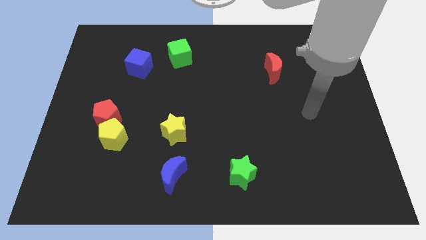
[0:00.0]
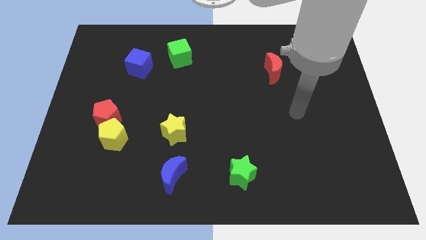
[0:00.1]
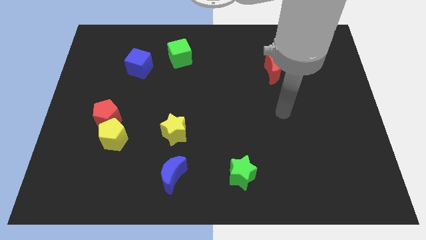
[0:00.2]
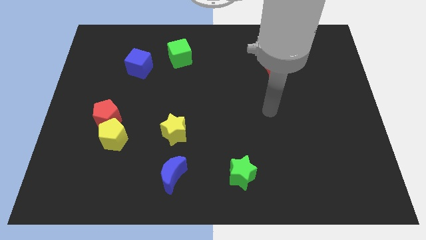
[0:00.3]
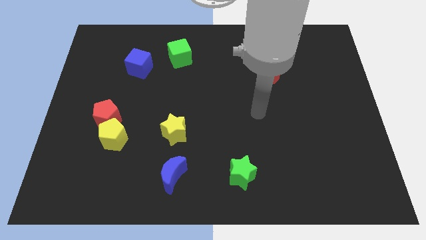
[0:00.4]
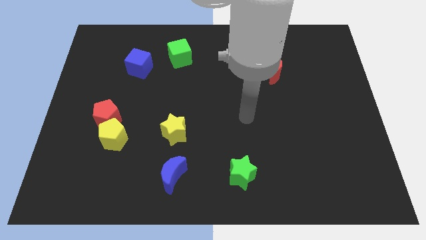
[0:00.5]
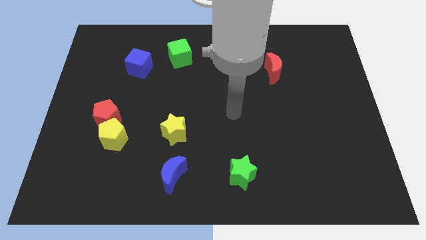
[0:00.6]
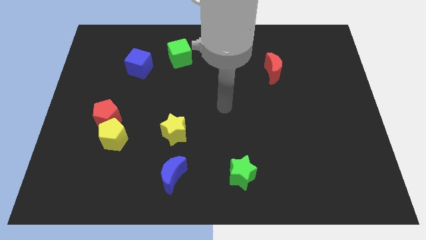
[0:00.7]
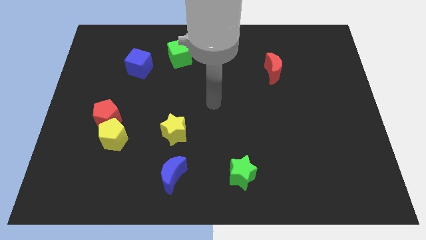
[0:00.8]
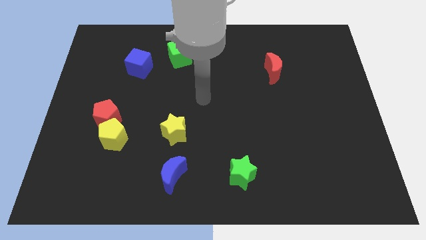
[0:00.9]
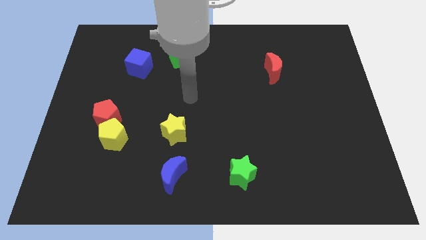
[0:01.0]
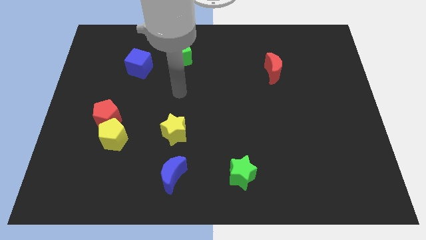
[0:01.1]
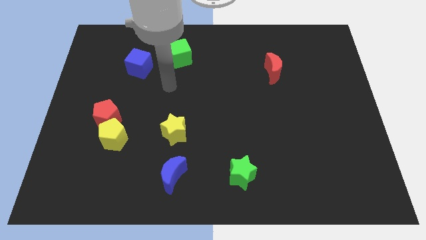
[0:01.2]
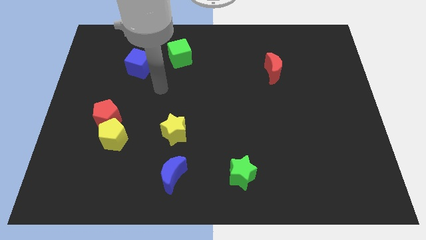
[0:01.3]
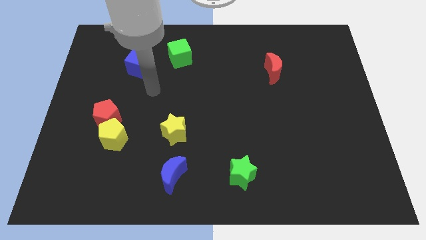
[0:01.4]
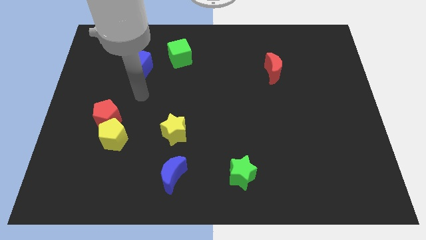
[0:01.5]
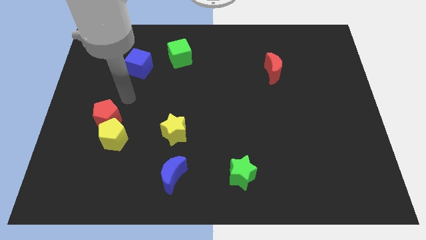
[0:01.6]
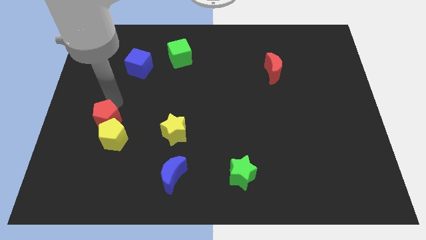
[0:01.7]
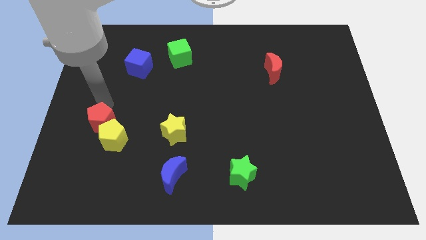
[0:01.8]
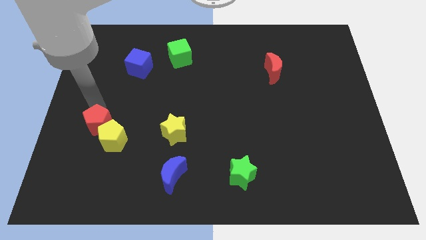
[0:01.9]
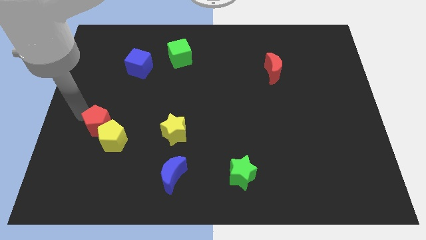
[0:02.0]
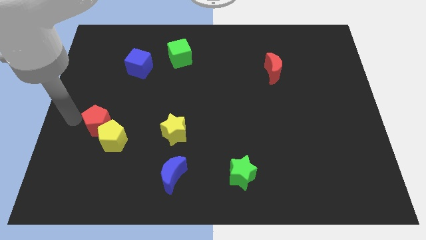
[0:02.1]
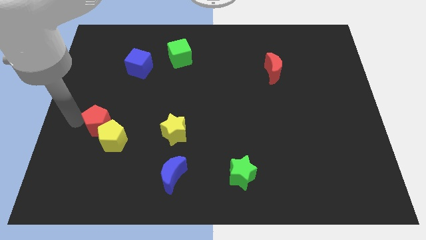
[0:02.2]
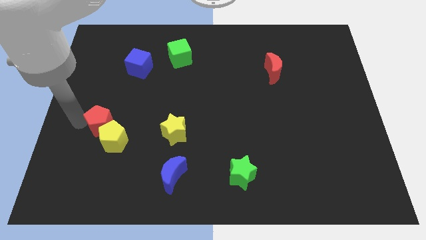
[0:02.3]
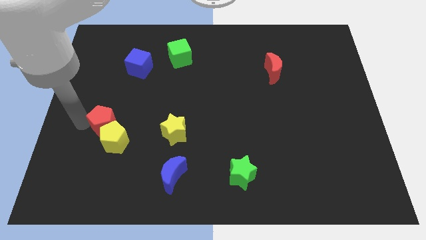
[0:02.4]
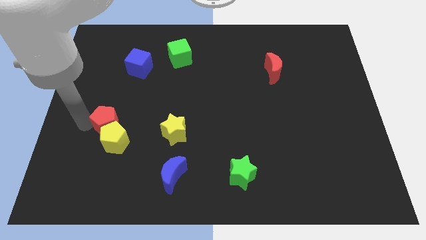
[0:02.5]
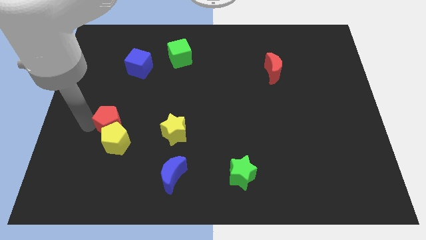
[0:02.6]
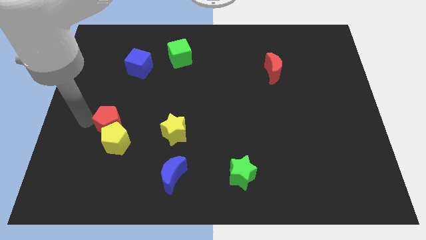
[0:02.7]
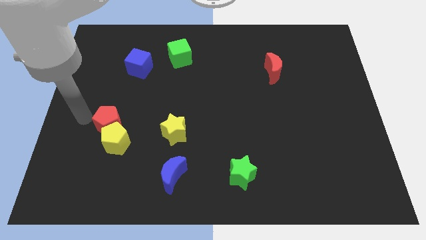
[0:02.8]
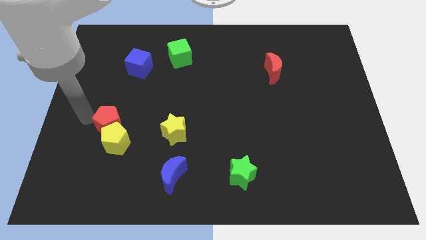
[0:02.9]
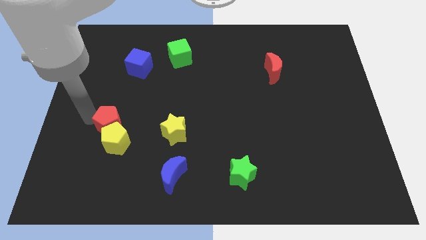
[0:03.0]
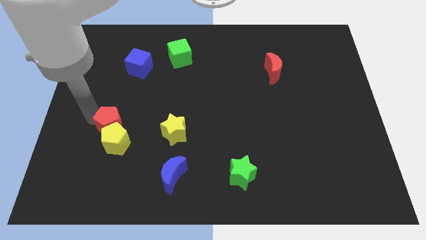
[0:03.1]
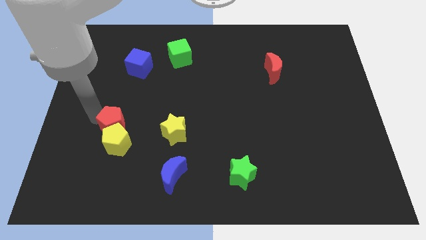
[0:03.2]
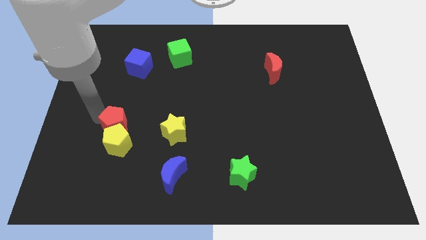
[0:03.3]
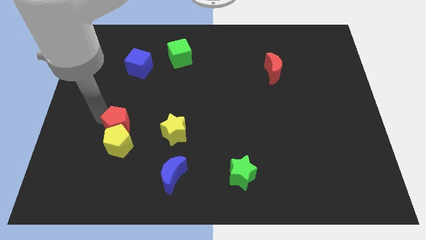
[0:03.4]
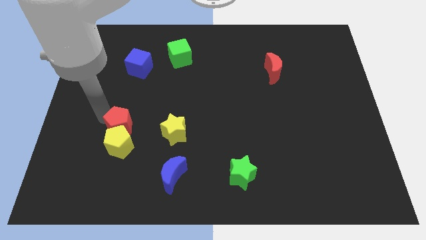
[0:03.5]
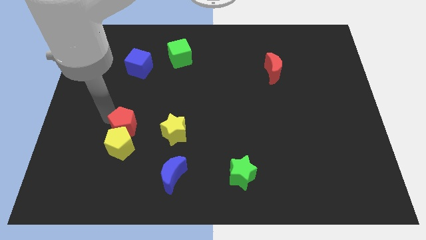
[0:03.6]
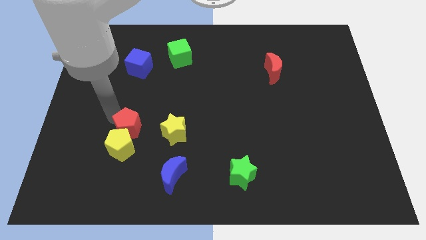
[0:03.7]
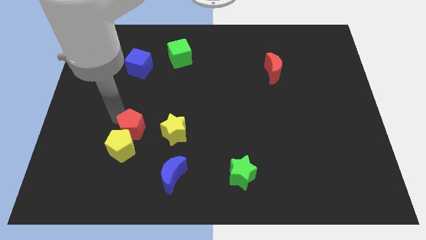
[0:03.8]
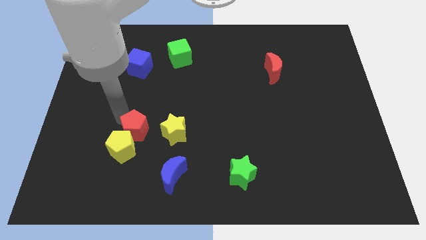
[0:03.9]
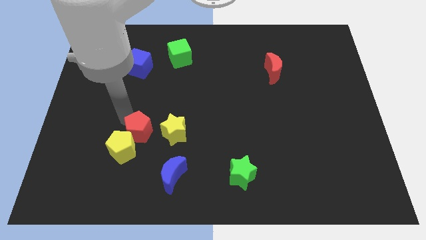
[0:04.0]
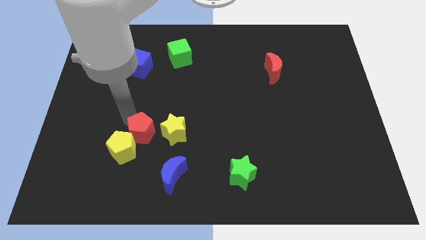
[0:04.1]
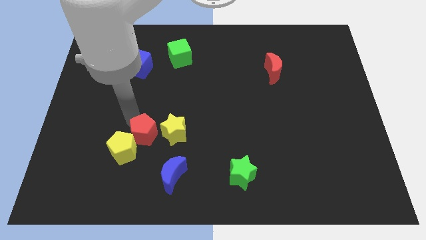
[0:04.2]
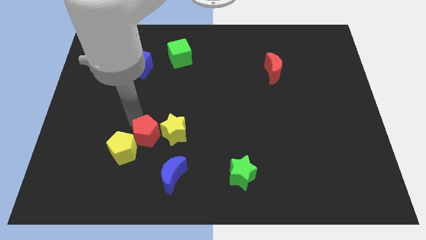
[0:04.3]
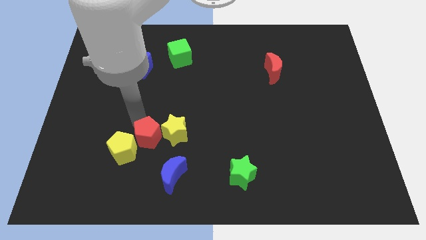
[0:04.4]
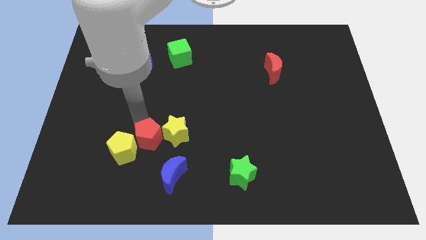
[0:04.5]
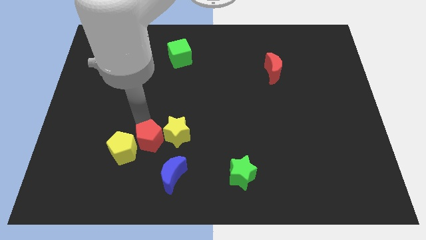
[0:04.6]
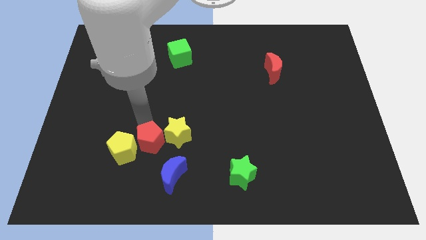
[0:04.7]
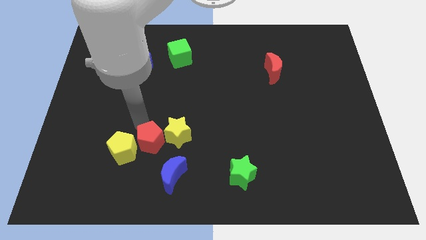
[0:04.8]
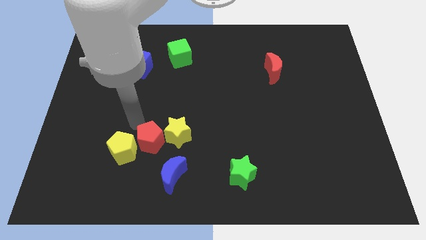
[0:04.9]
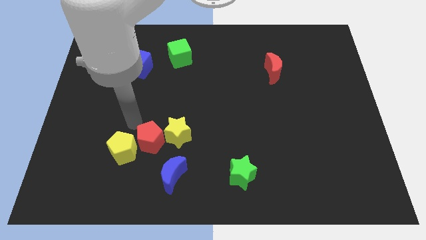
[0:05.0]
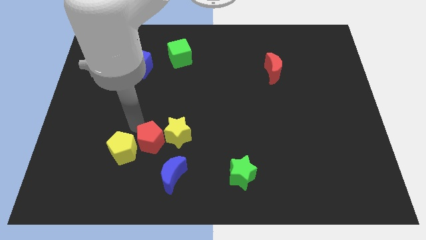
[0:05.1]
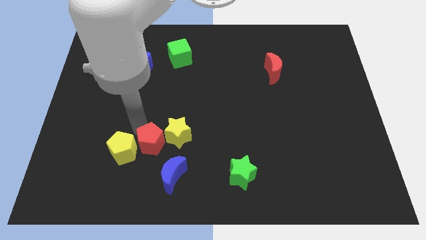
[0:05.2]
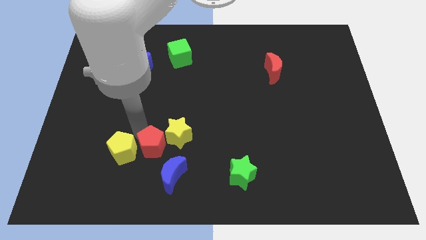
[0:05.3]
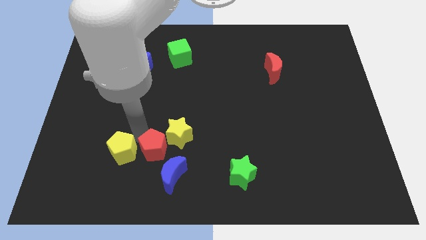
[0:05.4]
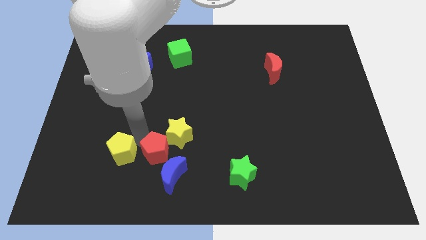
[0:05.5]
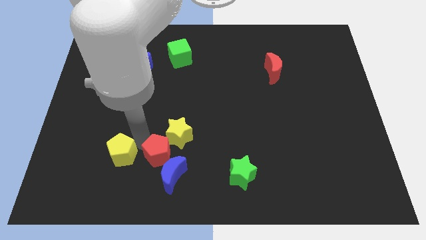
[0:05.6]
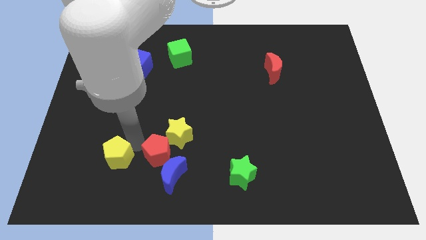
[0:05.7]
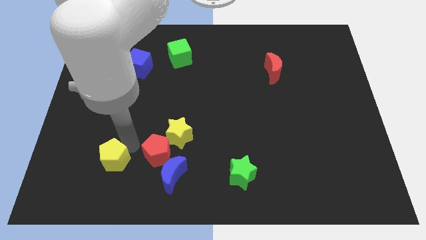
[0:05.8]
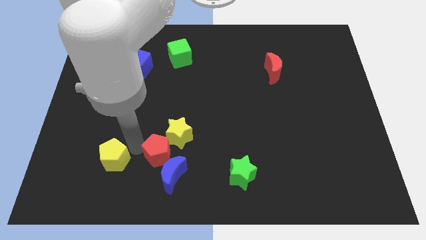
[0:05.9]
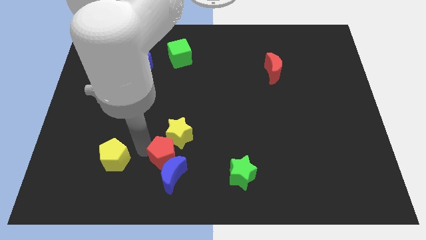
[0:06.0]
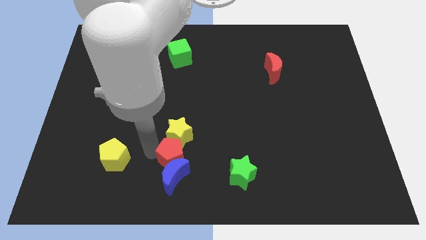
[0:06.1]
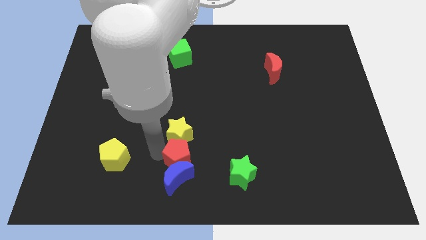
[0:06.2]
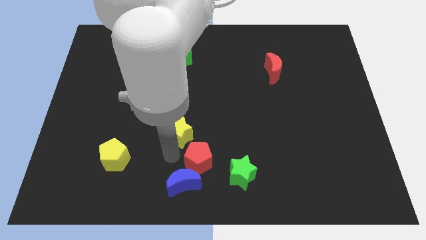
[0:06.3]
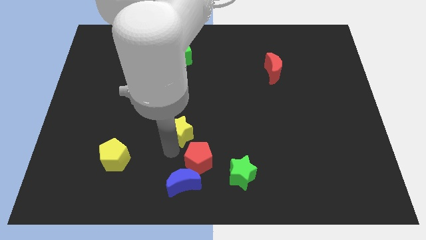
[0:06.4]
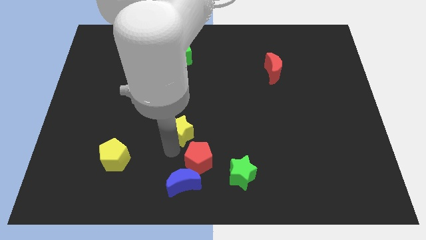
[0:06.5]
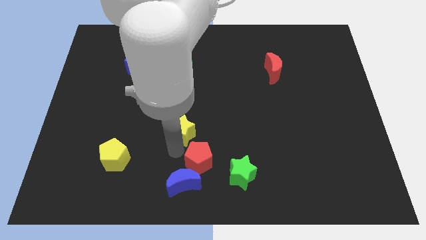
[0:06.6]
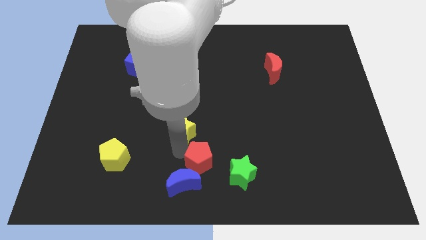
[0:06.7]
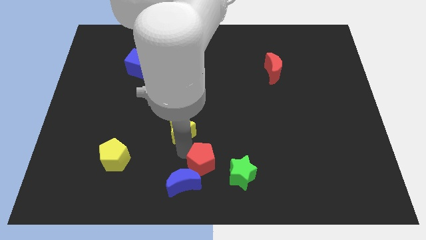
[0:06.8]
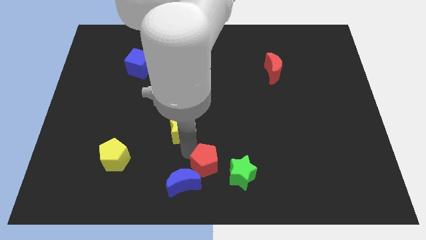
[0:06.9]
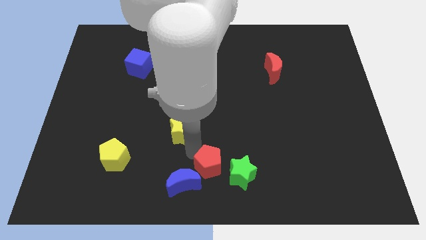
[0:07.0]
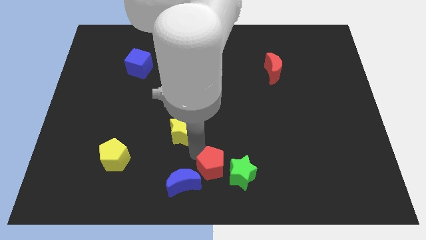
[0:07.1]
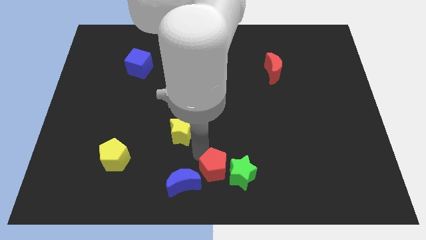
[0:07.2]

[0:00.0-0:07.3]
put the red pentagon towards the green star
